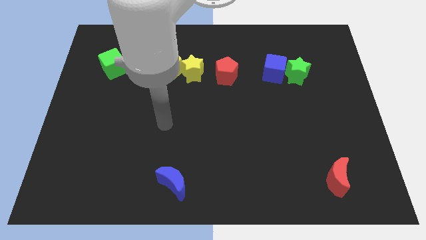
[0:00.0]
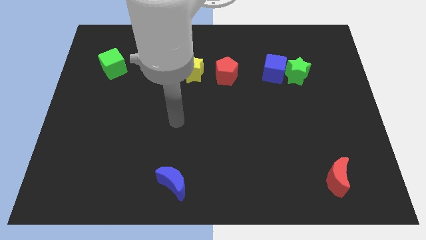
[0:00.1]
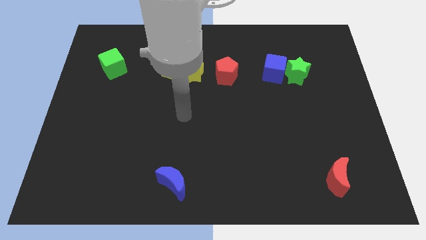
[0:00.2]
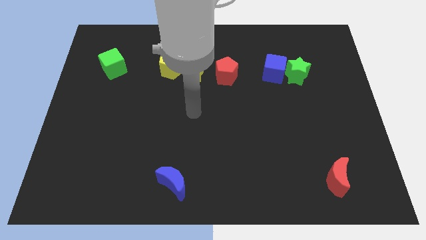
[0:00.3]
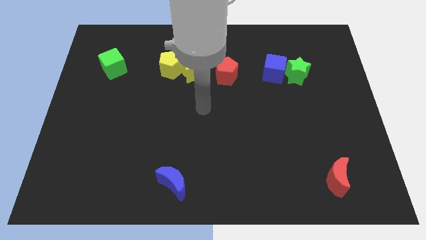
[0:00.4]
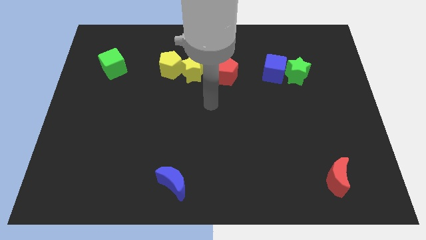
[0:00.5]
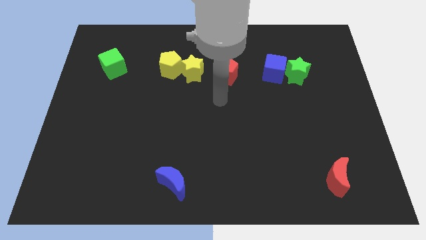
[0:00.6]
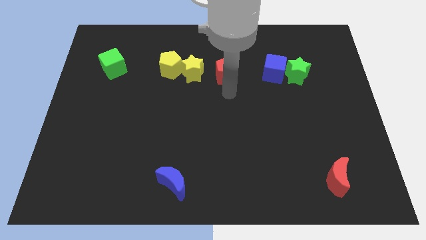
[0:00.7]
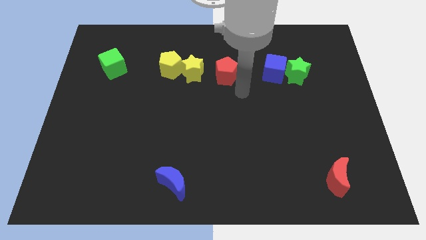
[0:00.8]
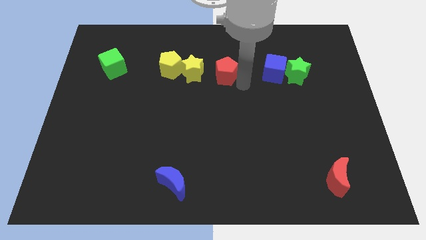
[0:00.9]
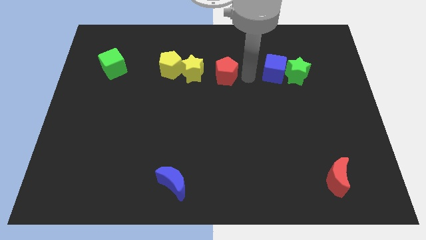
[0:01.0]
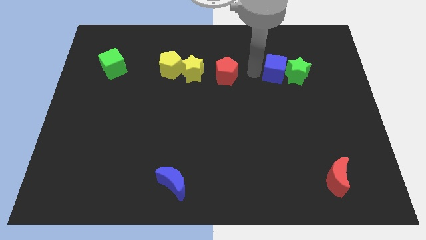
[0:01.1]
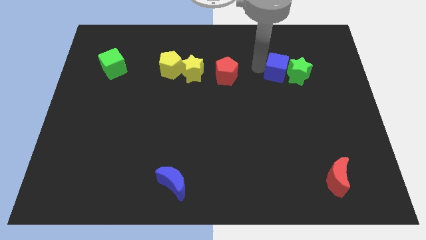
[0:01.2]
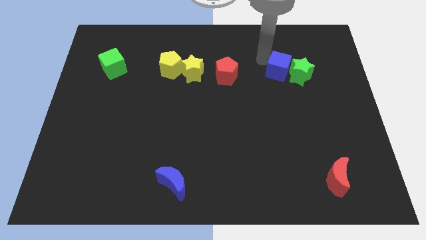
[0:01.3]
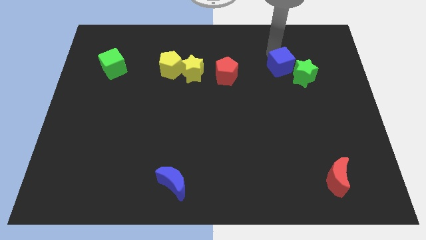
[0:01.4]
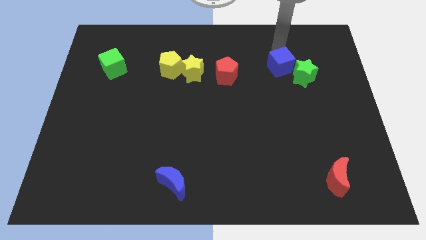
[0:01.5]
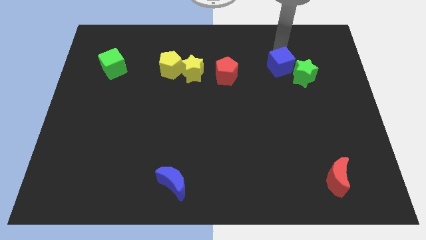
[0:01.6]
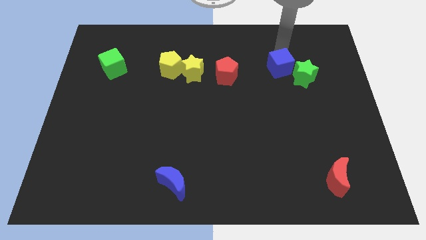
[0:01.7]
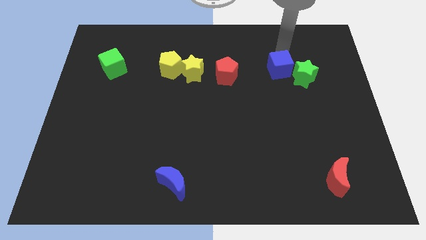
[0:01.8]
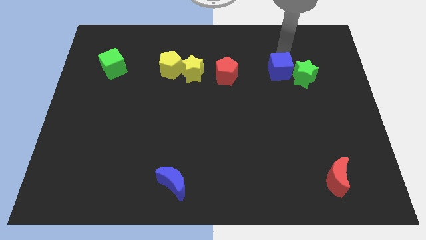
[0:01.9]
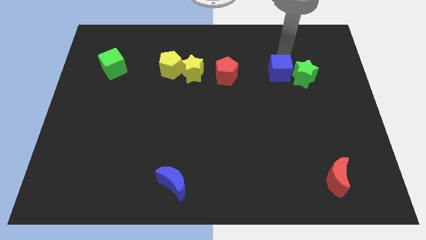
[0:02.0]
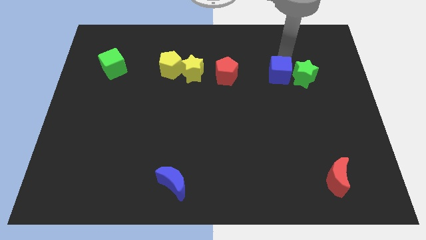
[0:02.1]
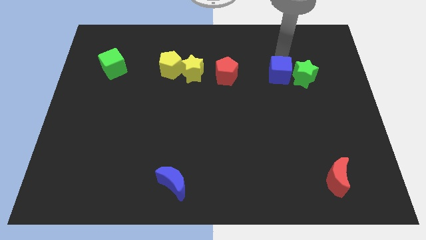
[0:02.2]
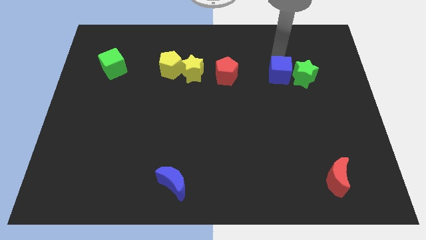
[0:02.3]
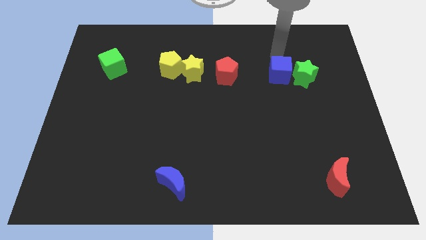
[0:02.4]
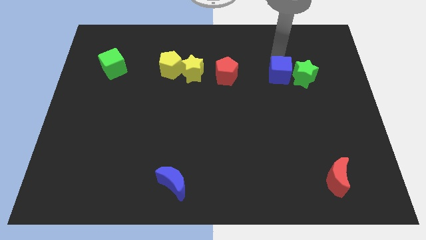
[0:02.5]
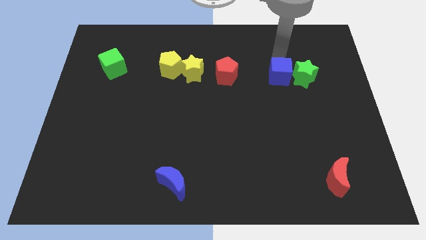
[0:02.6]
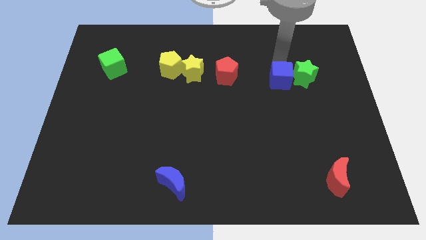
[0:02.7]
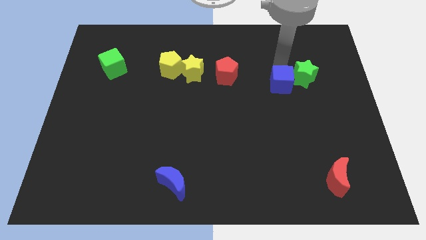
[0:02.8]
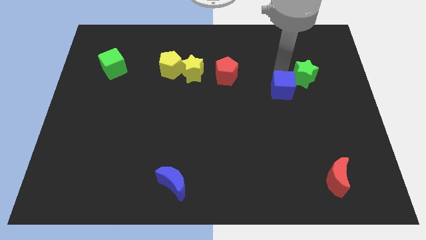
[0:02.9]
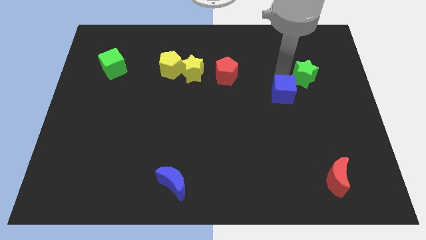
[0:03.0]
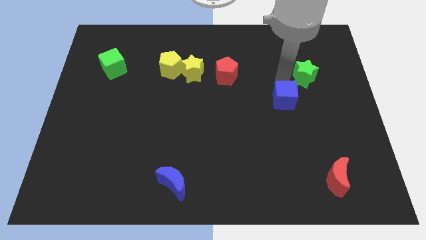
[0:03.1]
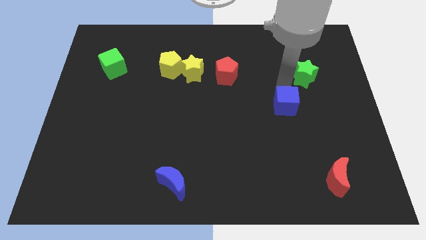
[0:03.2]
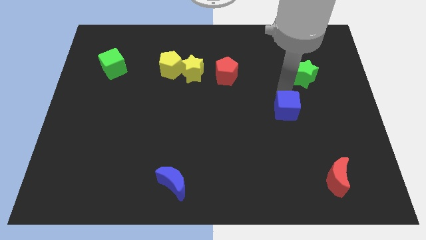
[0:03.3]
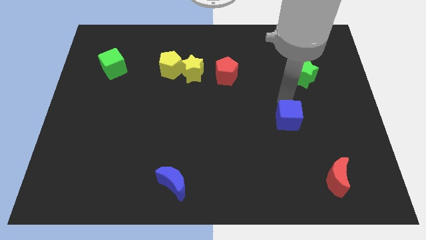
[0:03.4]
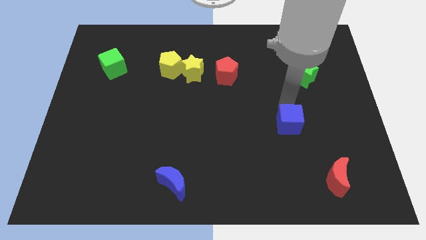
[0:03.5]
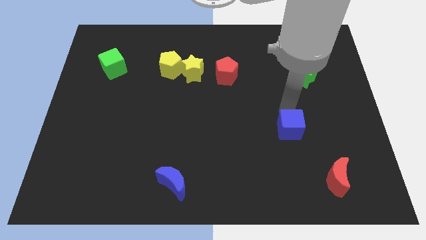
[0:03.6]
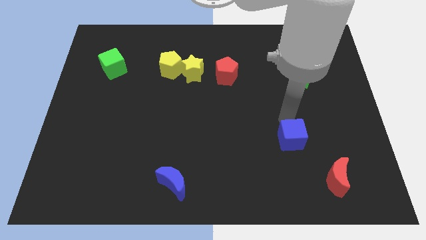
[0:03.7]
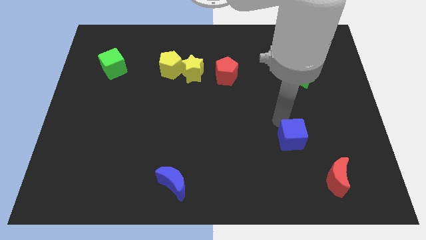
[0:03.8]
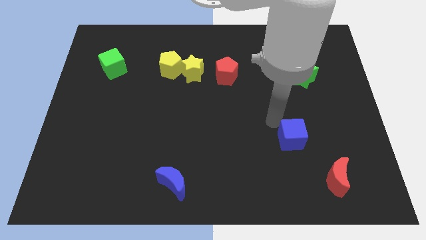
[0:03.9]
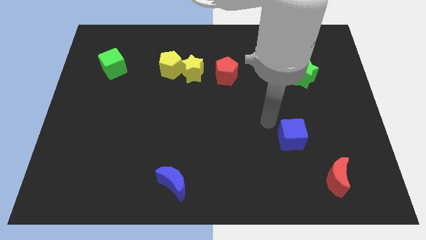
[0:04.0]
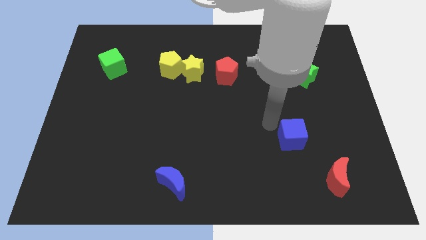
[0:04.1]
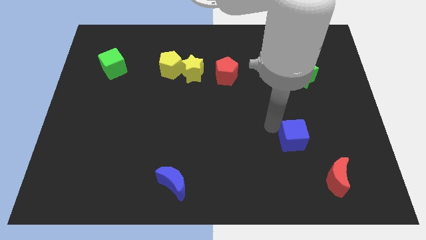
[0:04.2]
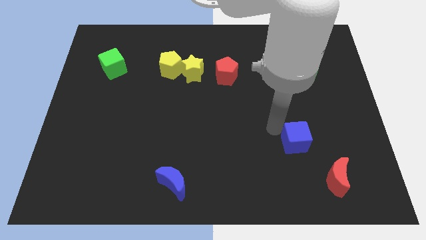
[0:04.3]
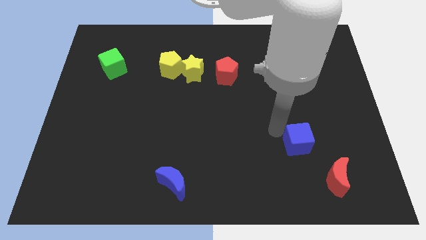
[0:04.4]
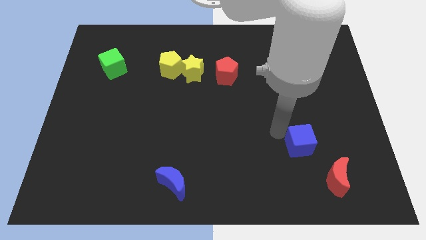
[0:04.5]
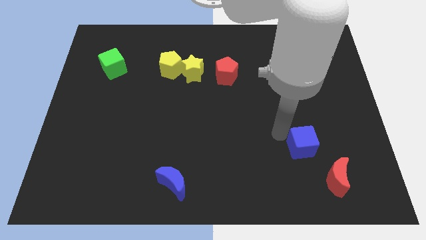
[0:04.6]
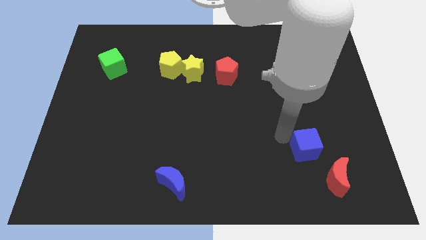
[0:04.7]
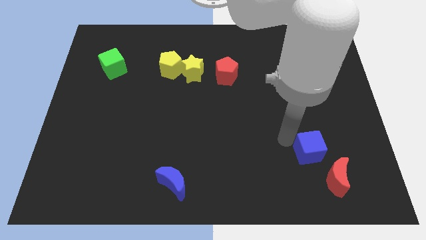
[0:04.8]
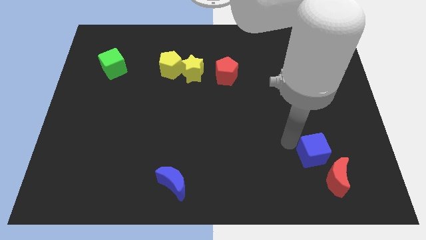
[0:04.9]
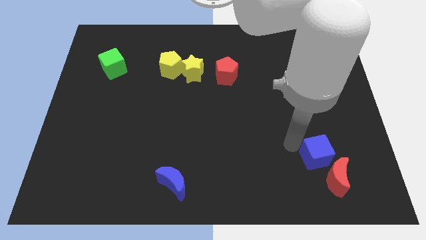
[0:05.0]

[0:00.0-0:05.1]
move the blue cube next to the red moon

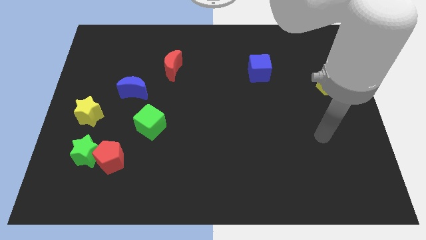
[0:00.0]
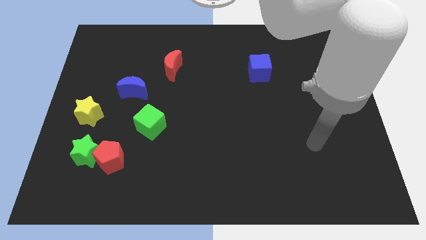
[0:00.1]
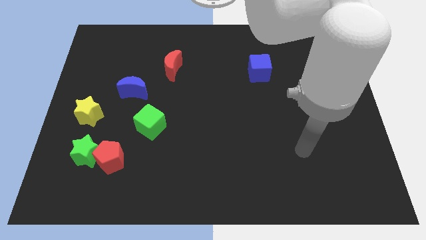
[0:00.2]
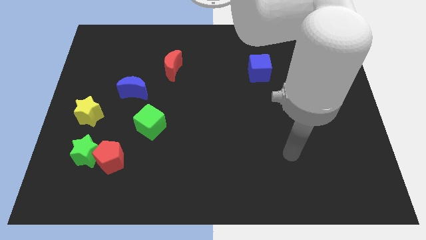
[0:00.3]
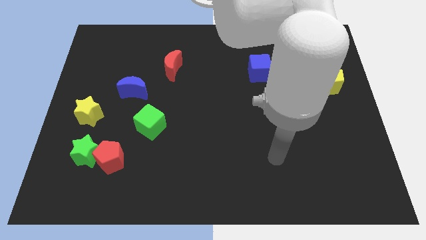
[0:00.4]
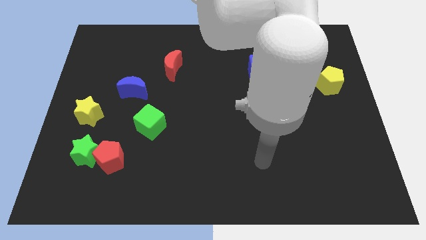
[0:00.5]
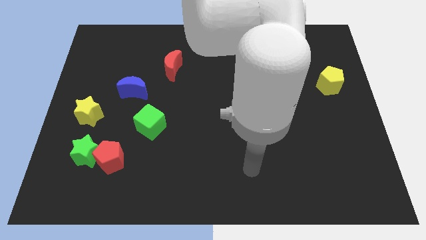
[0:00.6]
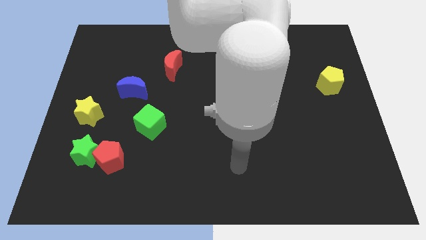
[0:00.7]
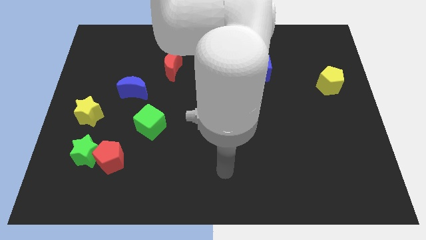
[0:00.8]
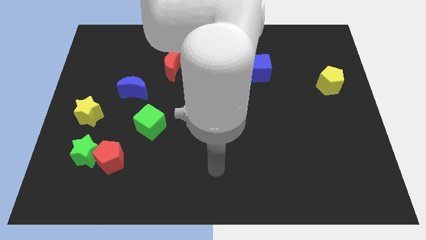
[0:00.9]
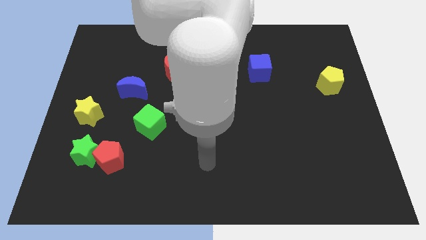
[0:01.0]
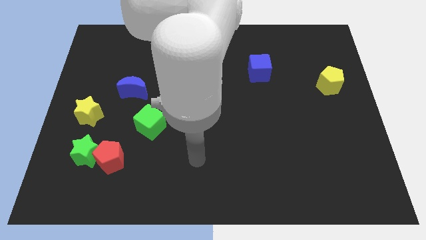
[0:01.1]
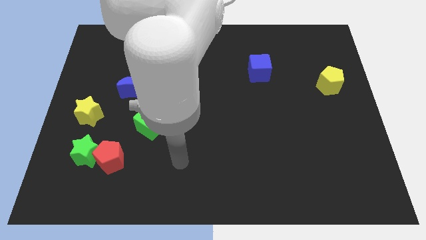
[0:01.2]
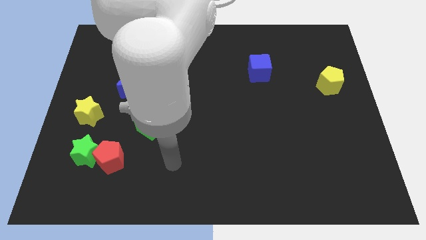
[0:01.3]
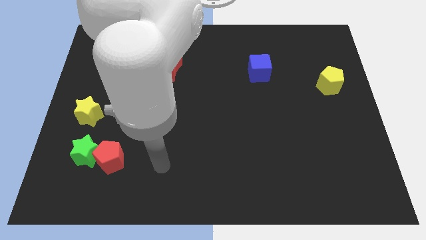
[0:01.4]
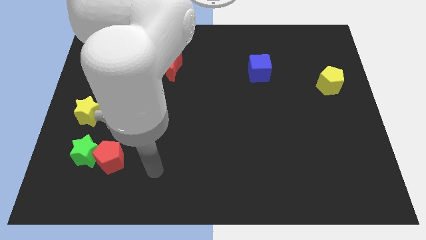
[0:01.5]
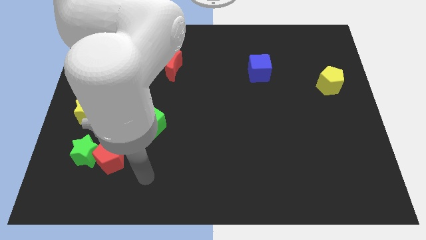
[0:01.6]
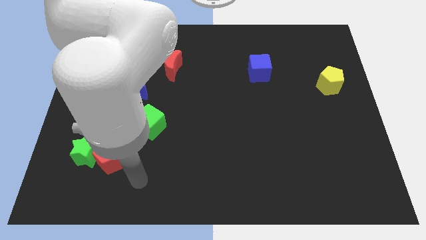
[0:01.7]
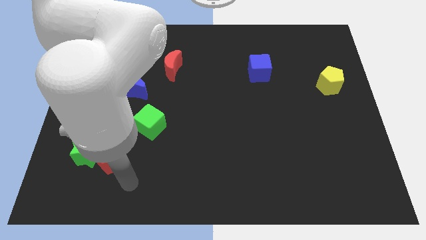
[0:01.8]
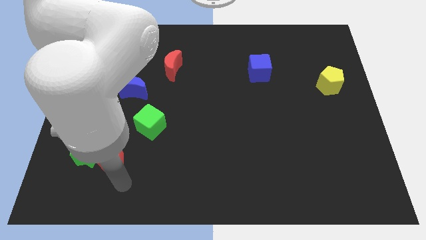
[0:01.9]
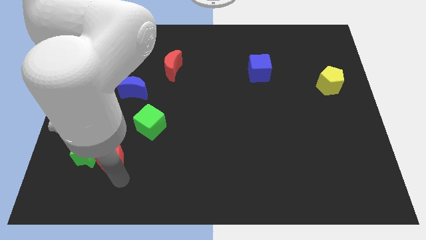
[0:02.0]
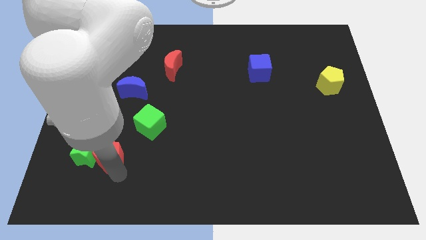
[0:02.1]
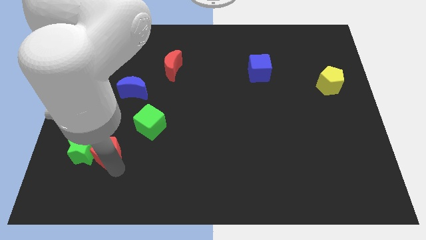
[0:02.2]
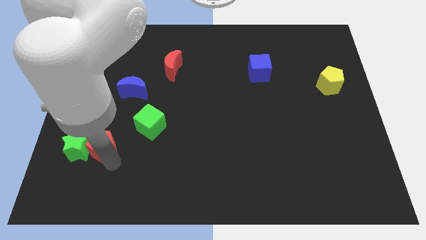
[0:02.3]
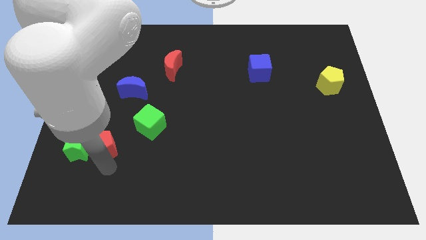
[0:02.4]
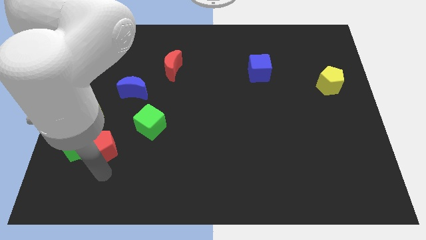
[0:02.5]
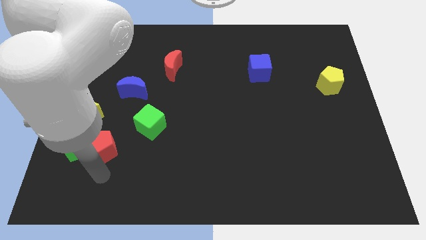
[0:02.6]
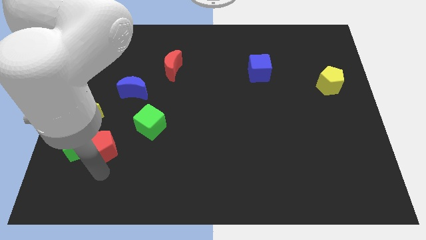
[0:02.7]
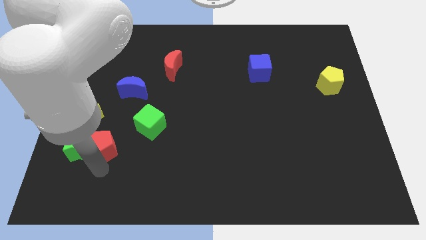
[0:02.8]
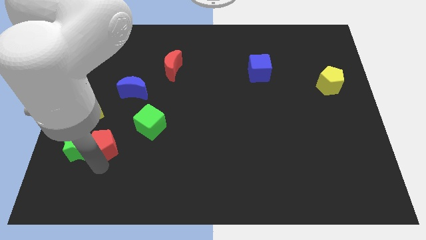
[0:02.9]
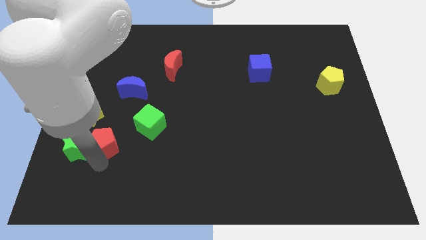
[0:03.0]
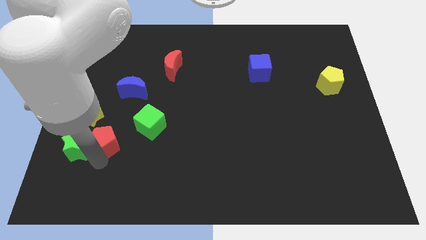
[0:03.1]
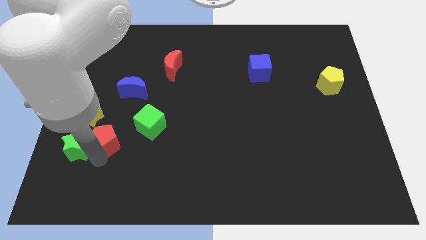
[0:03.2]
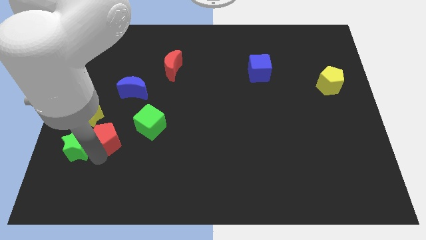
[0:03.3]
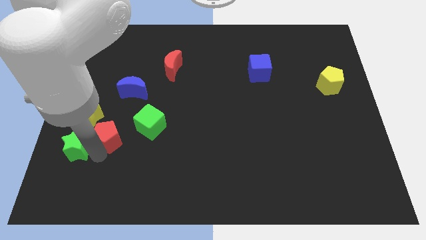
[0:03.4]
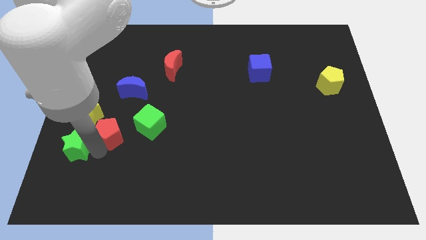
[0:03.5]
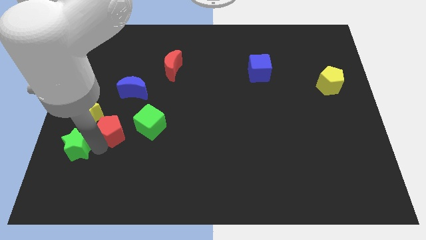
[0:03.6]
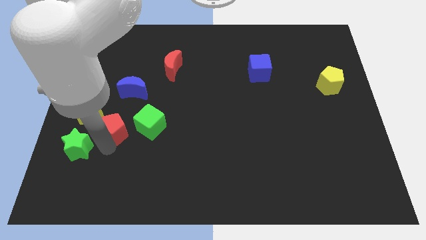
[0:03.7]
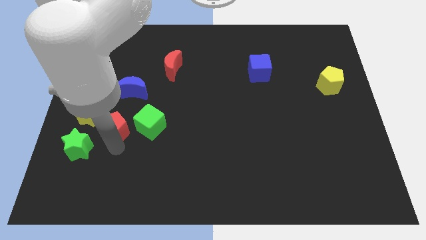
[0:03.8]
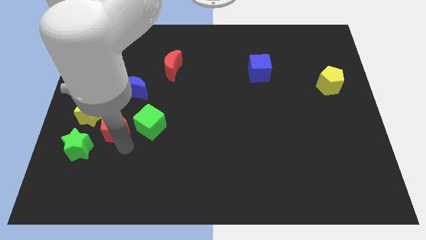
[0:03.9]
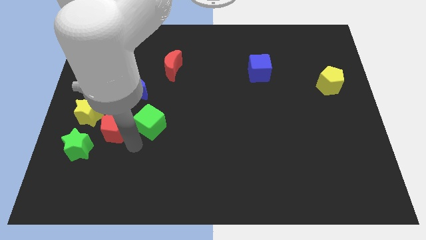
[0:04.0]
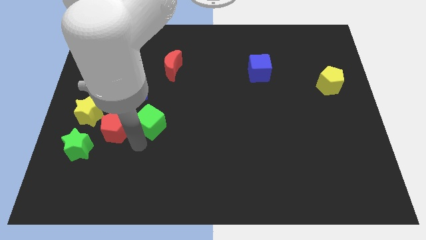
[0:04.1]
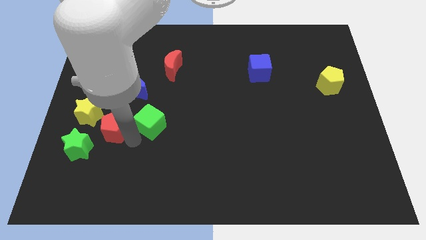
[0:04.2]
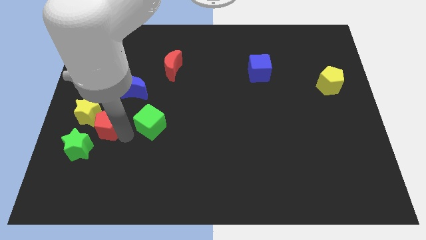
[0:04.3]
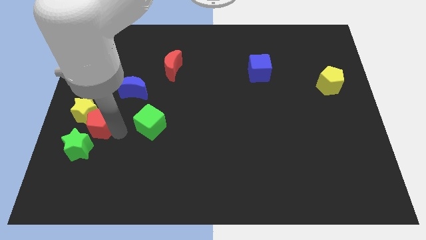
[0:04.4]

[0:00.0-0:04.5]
slide the red pentagon close to the yellow star
